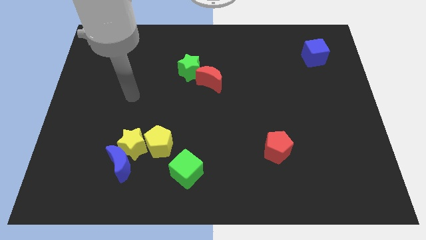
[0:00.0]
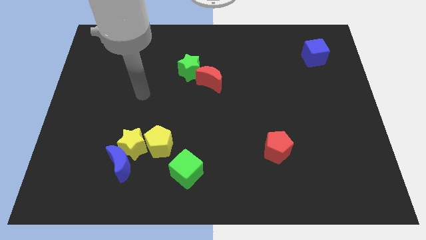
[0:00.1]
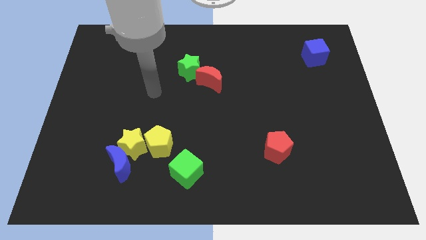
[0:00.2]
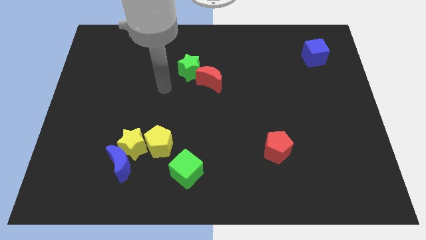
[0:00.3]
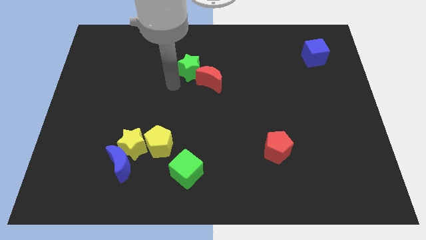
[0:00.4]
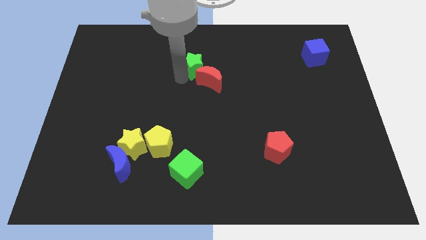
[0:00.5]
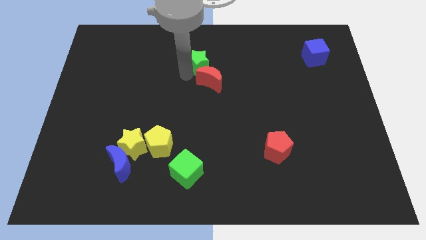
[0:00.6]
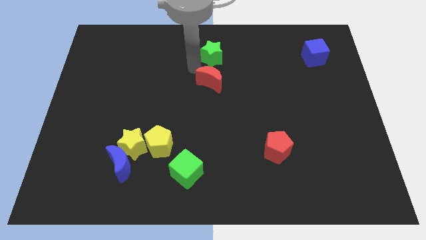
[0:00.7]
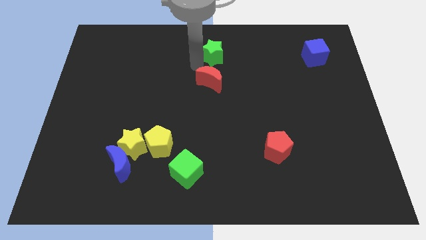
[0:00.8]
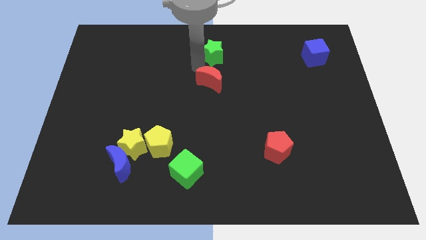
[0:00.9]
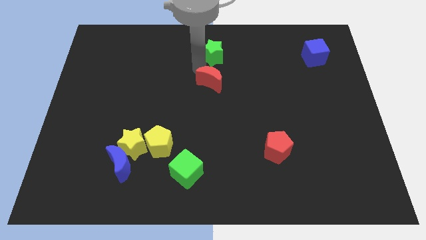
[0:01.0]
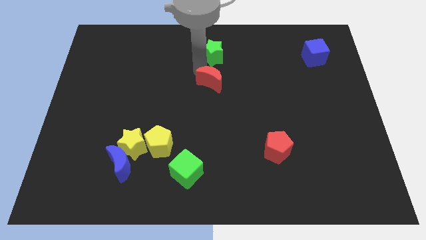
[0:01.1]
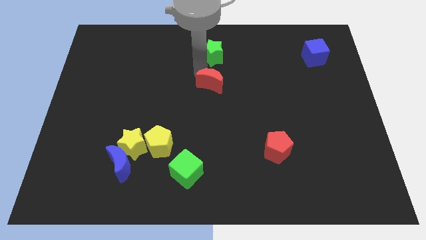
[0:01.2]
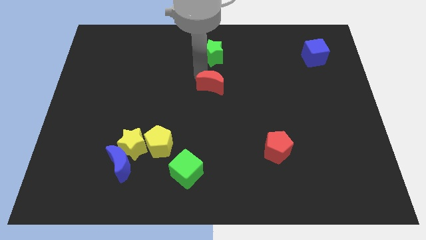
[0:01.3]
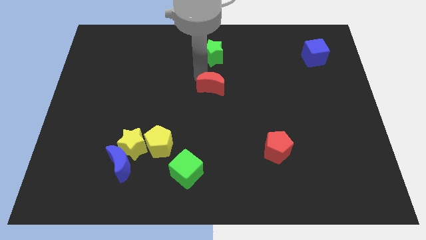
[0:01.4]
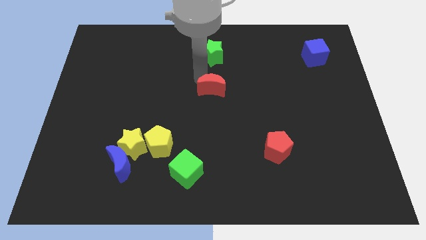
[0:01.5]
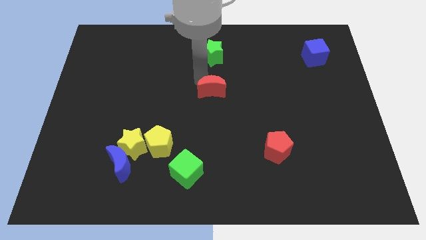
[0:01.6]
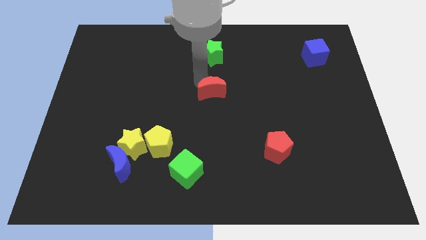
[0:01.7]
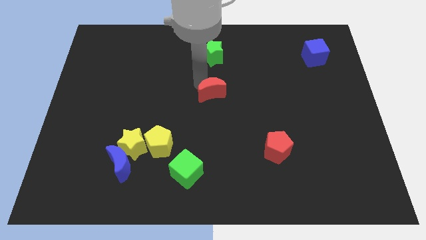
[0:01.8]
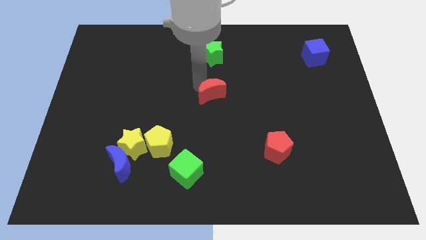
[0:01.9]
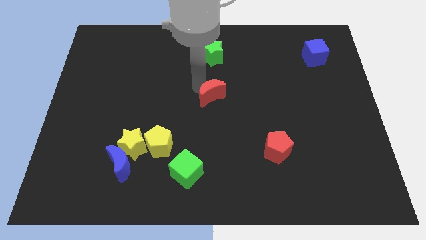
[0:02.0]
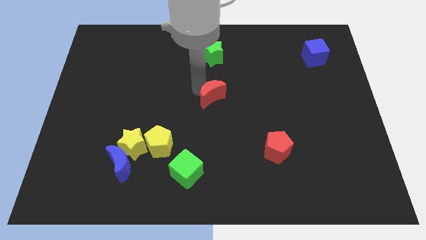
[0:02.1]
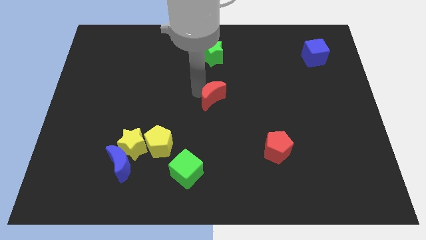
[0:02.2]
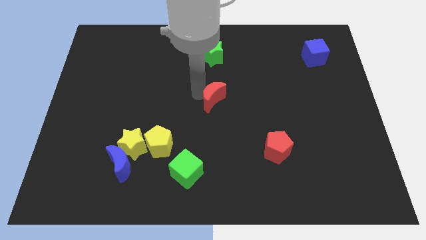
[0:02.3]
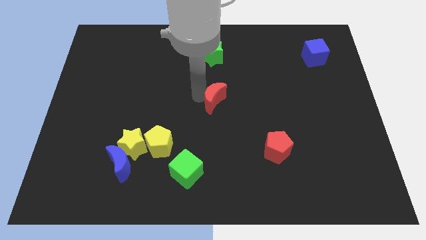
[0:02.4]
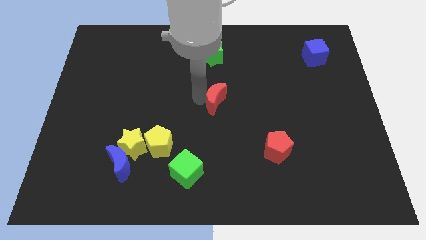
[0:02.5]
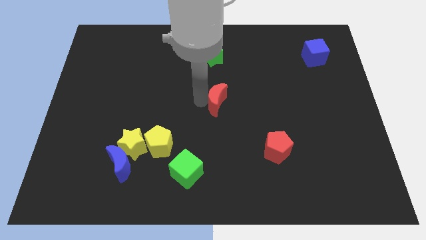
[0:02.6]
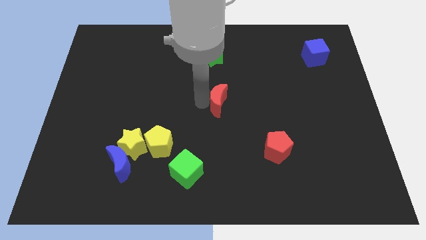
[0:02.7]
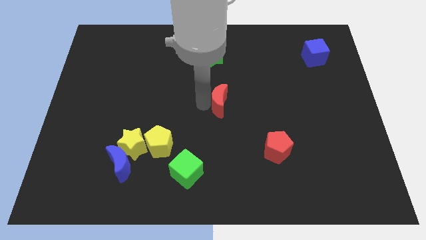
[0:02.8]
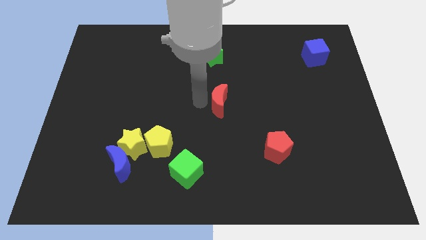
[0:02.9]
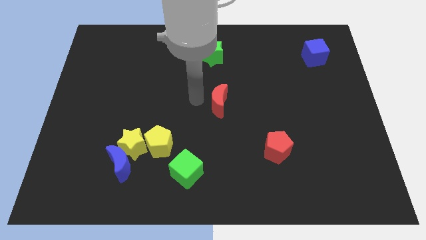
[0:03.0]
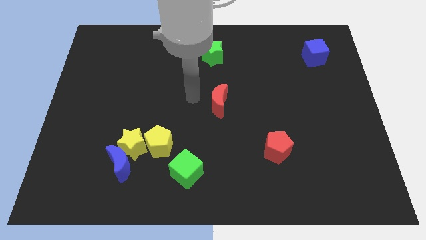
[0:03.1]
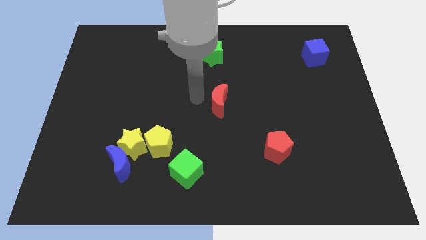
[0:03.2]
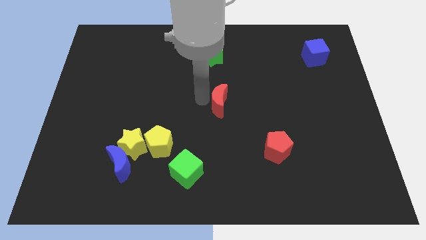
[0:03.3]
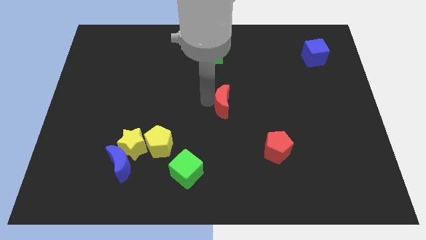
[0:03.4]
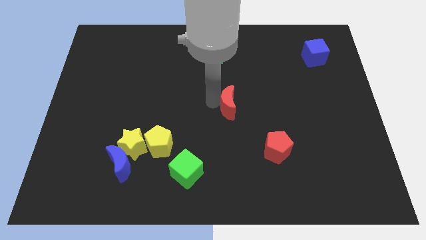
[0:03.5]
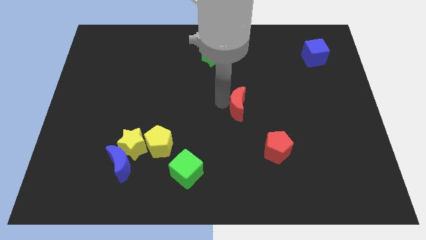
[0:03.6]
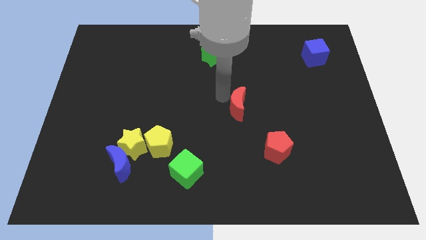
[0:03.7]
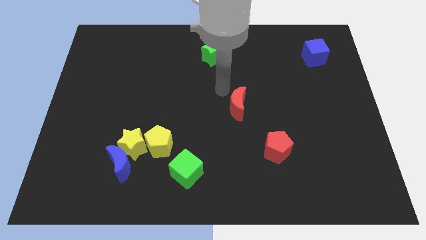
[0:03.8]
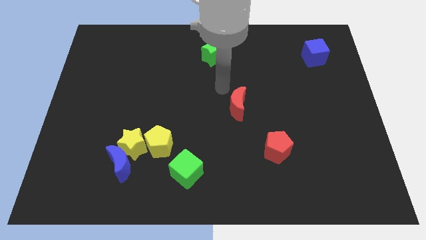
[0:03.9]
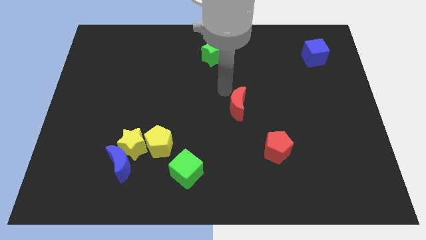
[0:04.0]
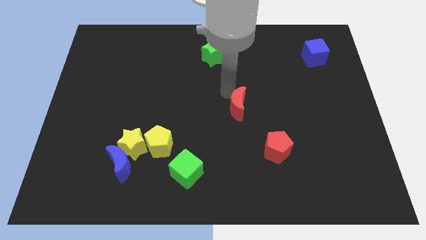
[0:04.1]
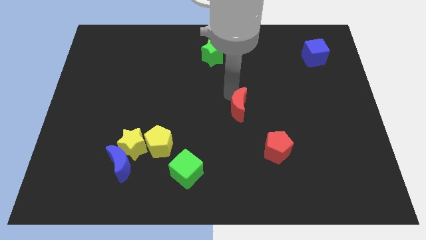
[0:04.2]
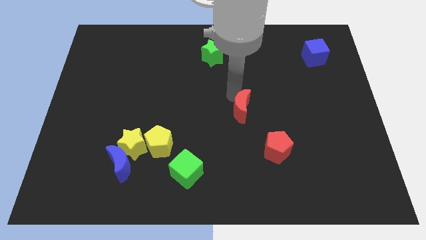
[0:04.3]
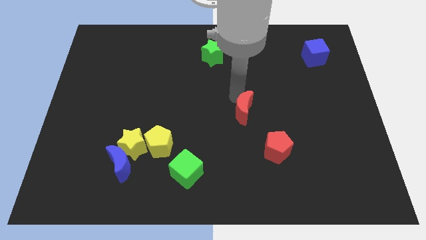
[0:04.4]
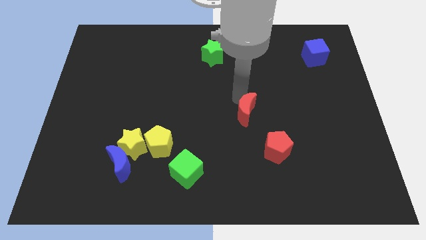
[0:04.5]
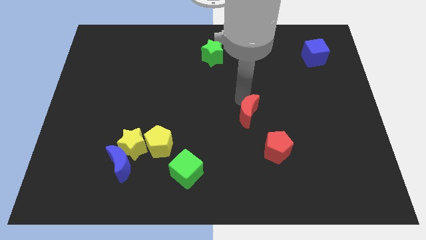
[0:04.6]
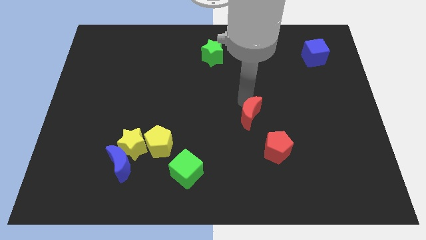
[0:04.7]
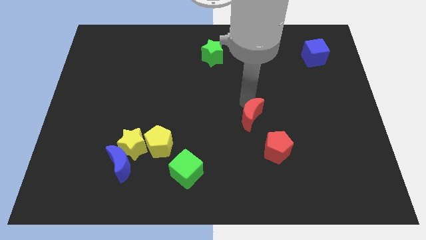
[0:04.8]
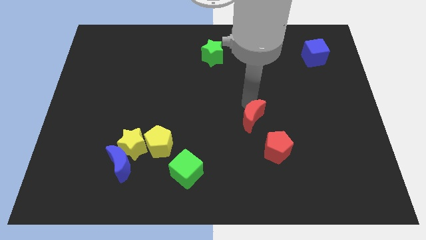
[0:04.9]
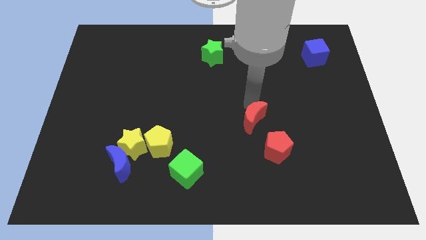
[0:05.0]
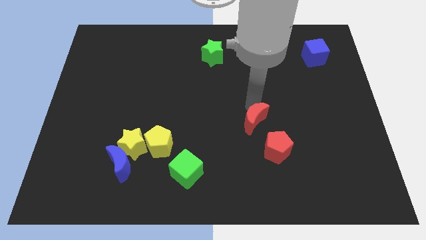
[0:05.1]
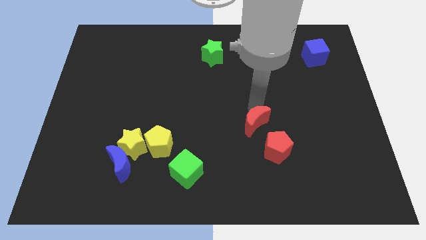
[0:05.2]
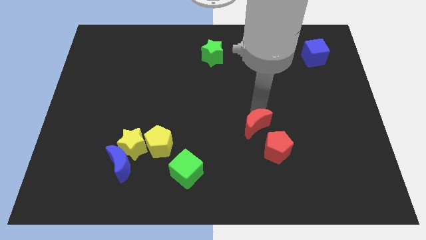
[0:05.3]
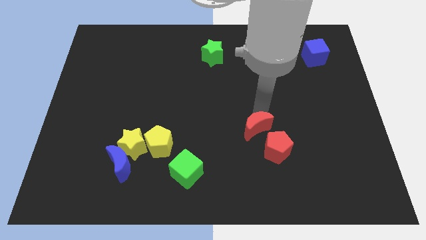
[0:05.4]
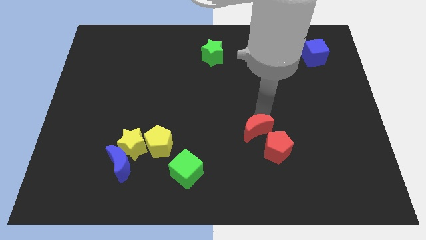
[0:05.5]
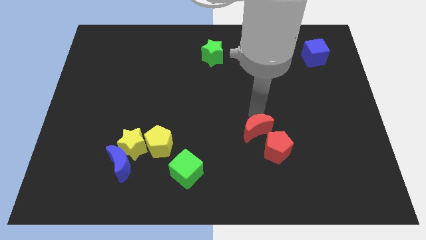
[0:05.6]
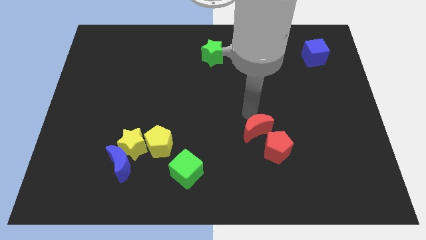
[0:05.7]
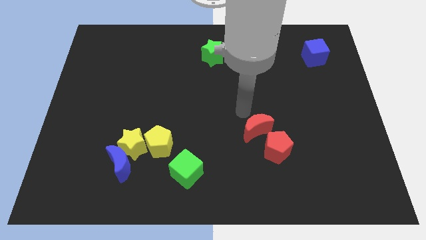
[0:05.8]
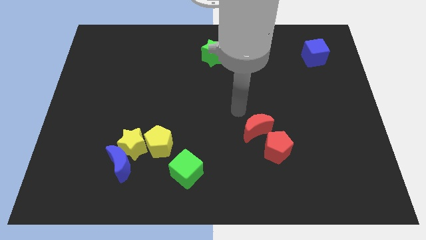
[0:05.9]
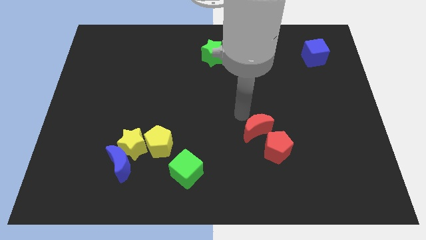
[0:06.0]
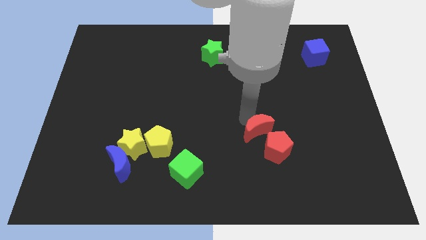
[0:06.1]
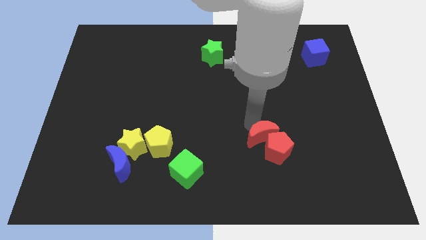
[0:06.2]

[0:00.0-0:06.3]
put the red moon close to the red pentagon
